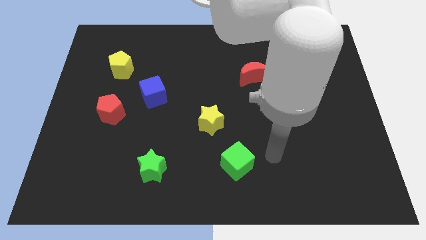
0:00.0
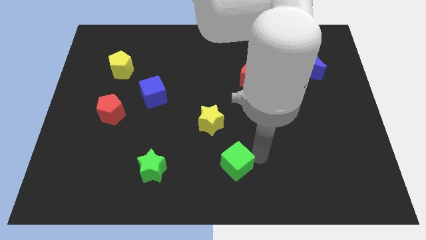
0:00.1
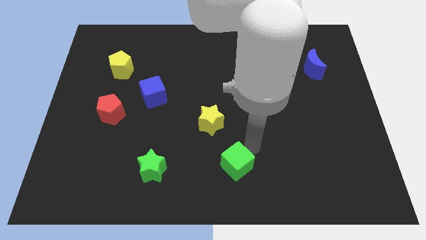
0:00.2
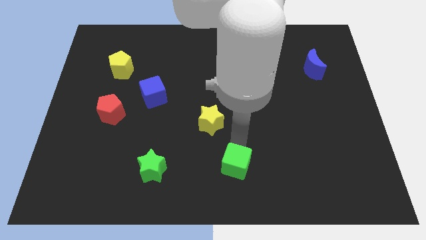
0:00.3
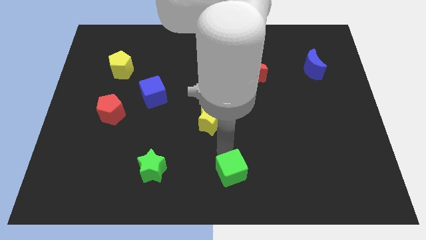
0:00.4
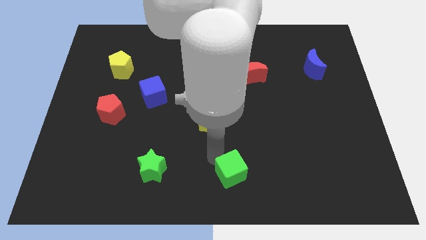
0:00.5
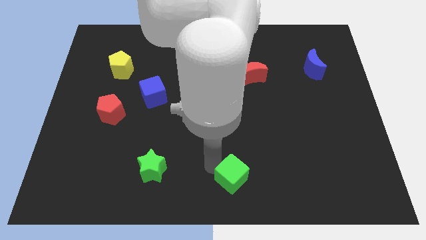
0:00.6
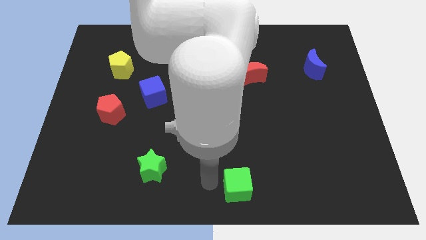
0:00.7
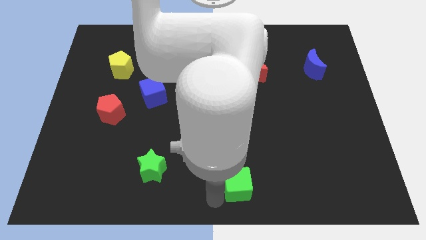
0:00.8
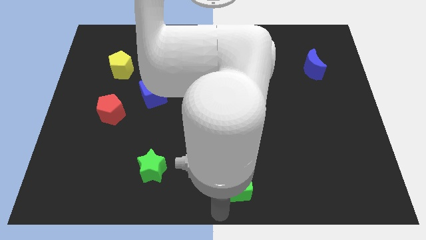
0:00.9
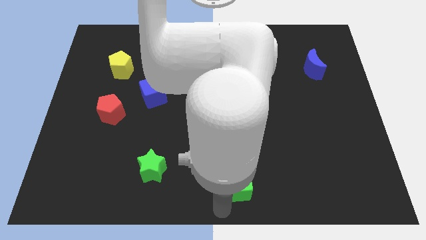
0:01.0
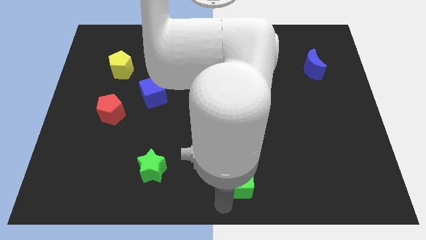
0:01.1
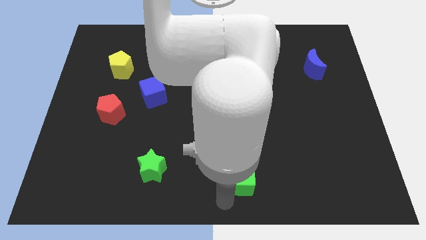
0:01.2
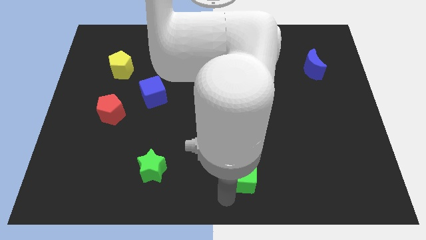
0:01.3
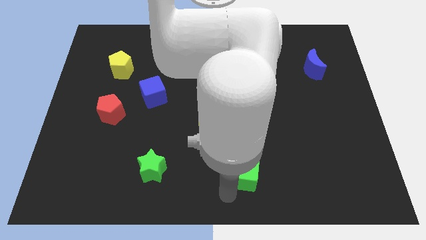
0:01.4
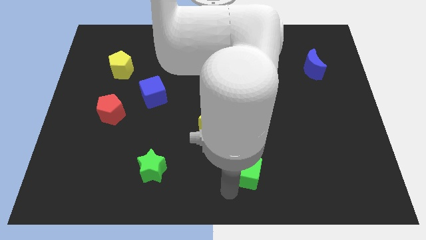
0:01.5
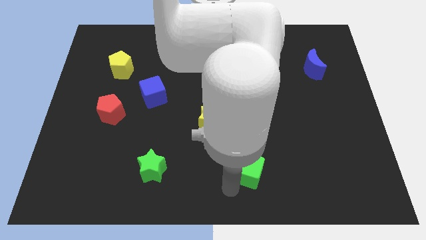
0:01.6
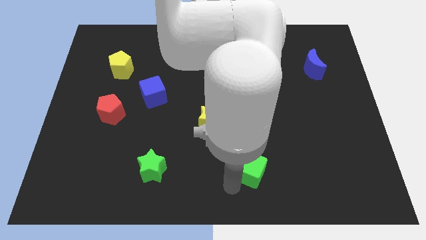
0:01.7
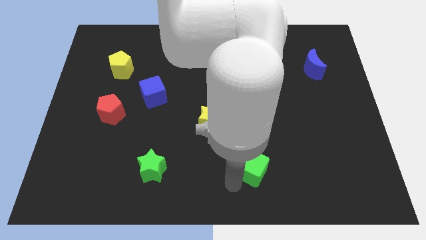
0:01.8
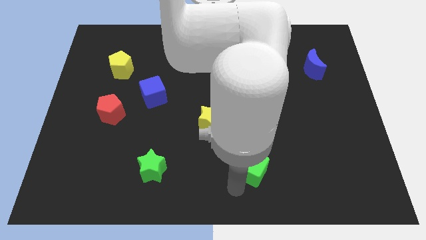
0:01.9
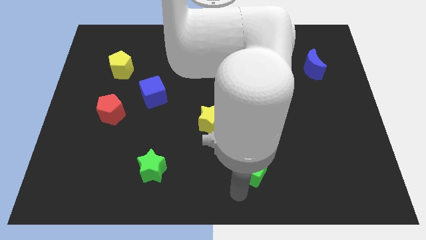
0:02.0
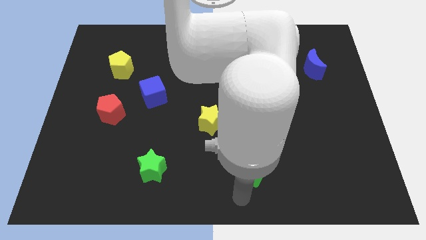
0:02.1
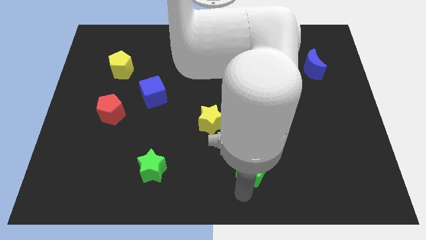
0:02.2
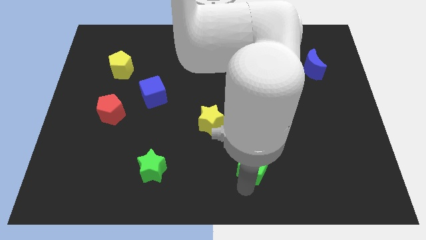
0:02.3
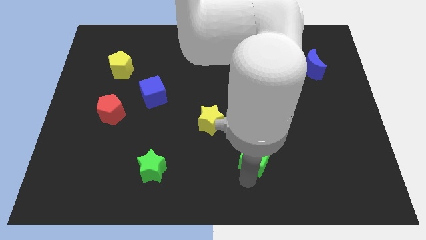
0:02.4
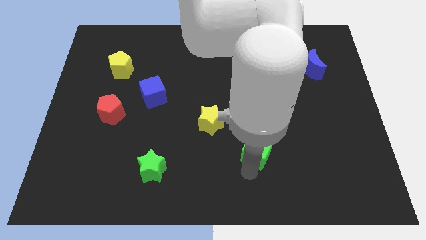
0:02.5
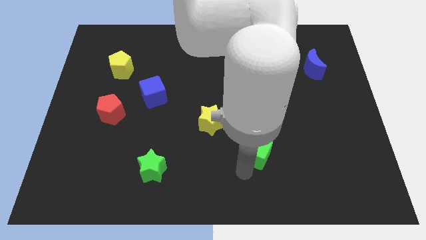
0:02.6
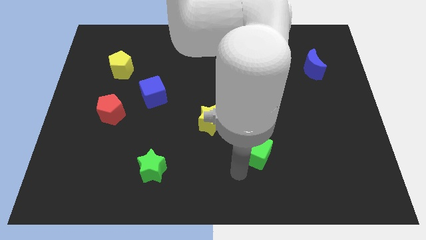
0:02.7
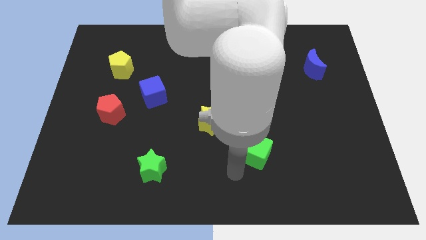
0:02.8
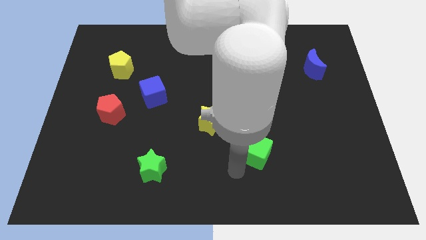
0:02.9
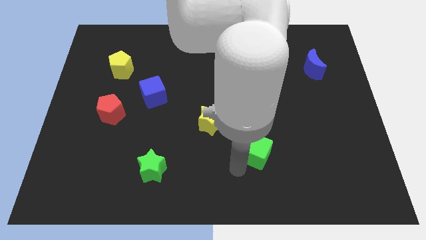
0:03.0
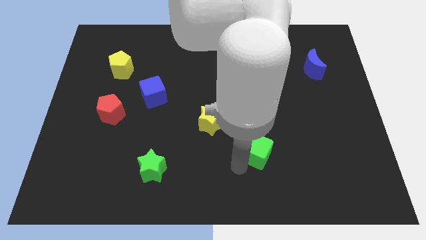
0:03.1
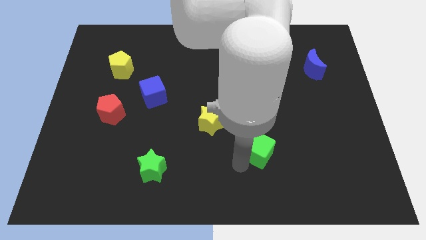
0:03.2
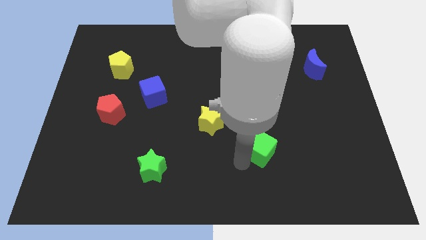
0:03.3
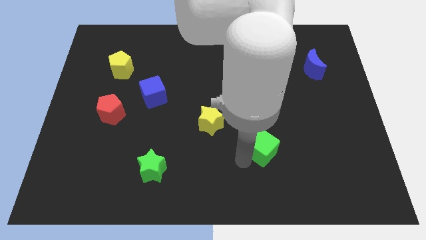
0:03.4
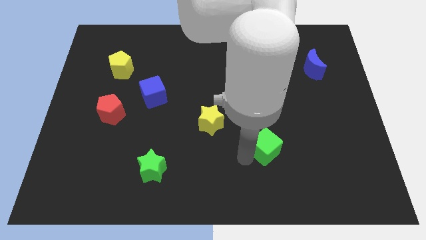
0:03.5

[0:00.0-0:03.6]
slightly push the green cube diagonally up and right

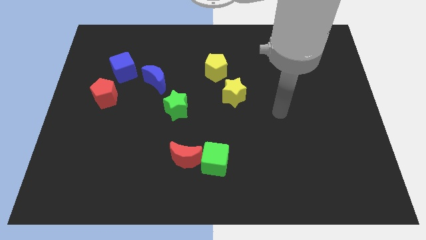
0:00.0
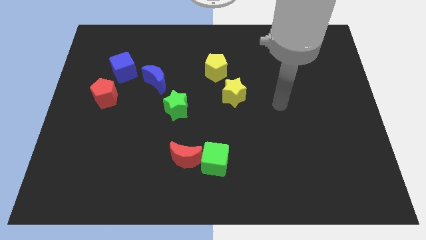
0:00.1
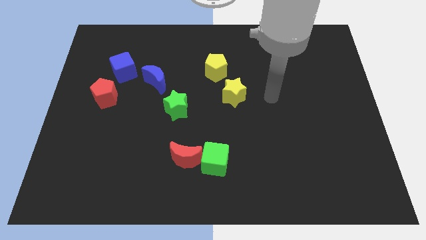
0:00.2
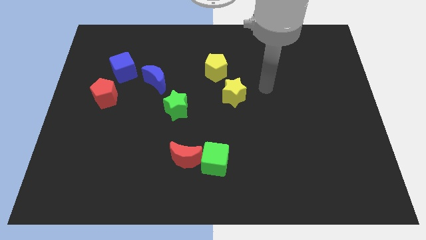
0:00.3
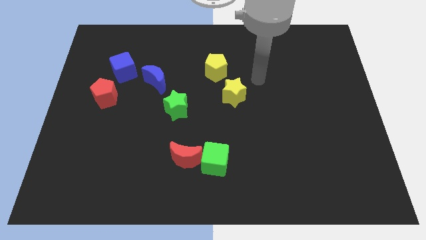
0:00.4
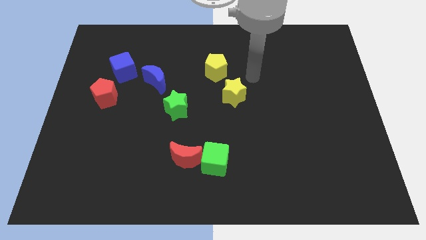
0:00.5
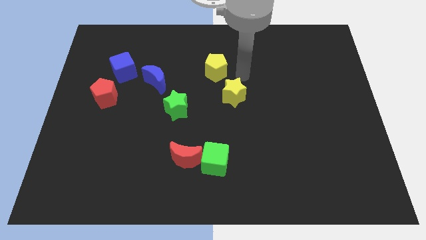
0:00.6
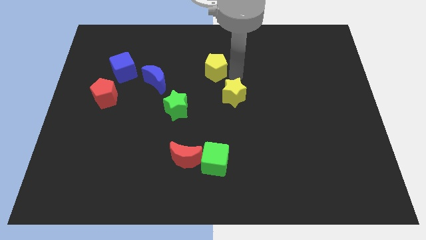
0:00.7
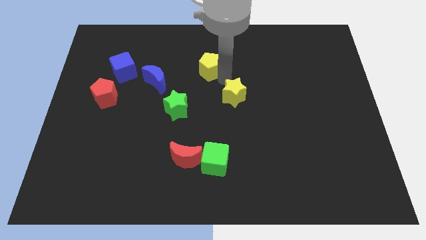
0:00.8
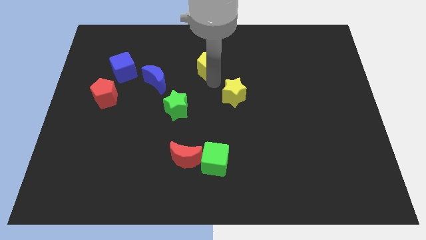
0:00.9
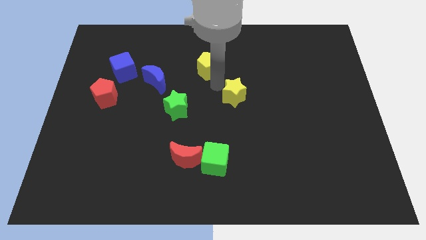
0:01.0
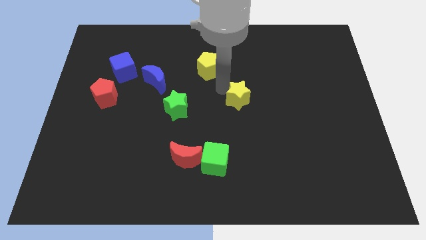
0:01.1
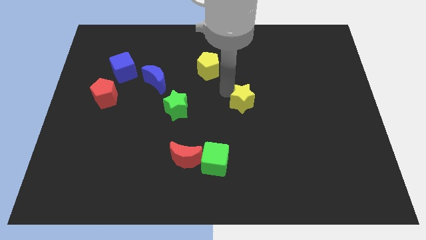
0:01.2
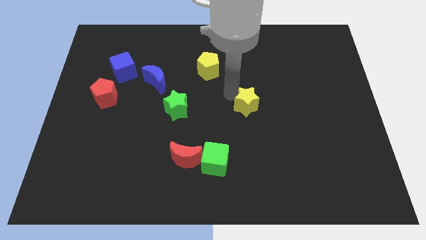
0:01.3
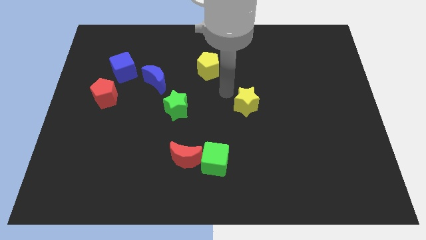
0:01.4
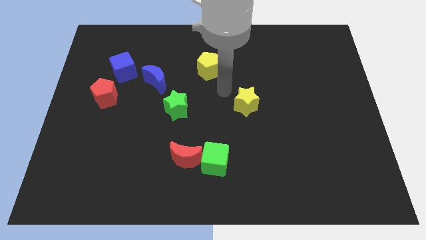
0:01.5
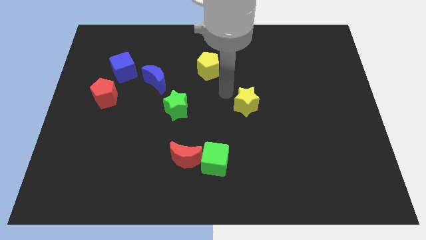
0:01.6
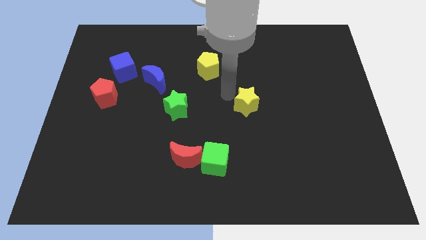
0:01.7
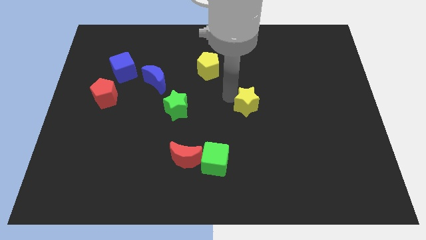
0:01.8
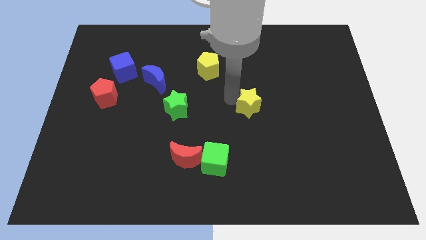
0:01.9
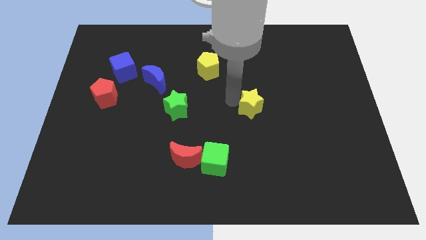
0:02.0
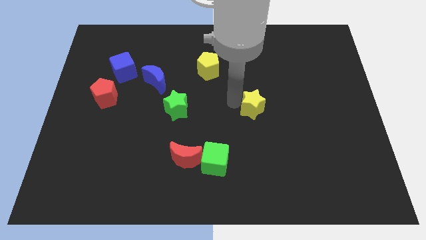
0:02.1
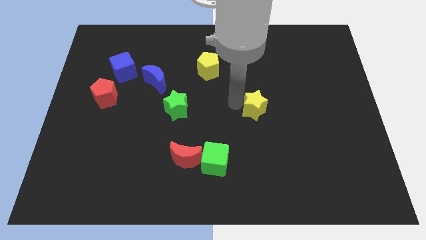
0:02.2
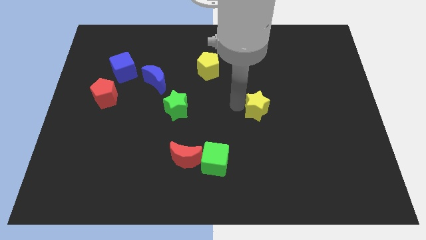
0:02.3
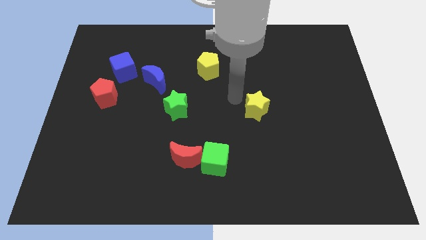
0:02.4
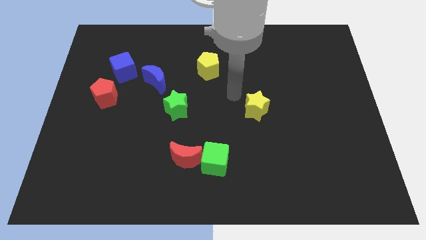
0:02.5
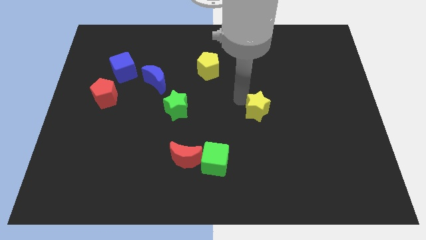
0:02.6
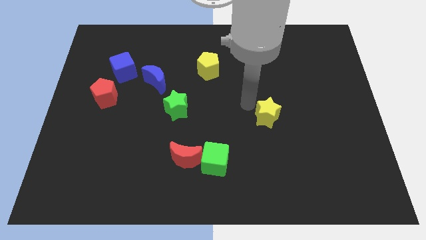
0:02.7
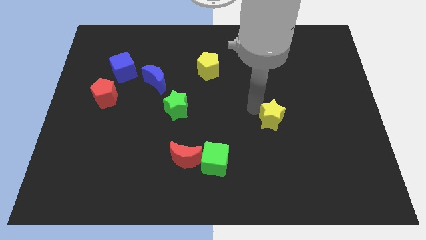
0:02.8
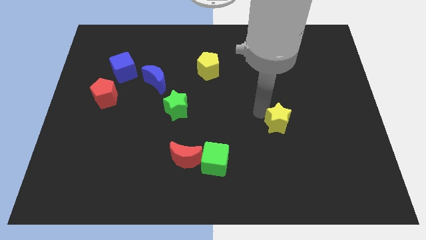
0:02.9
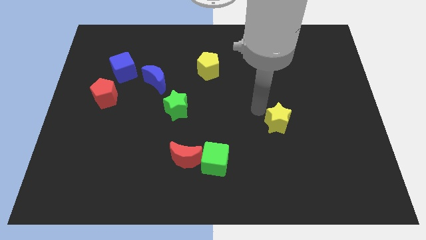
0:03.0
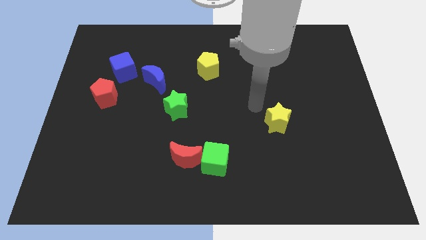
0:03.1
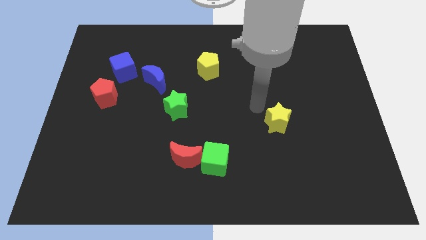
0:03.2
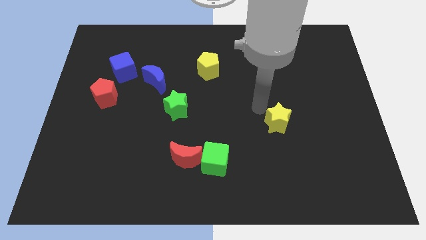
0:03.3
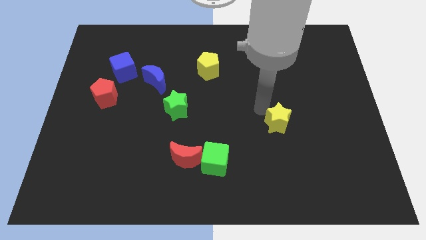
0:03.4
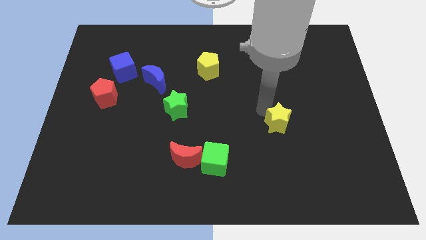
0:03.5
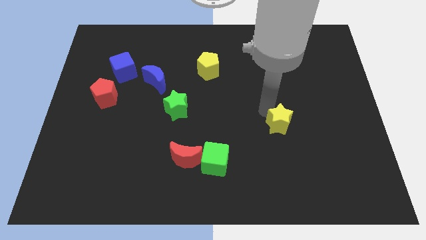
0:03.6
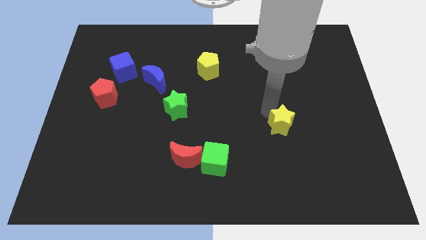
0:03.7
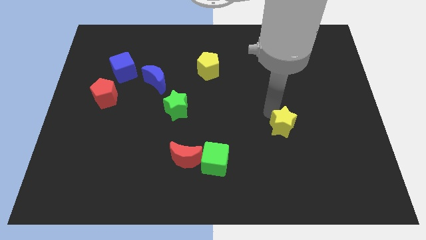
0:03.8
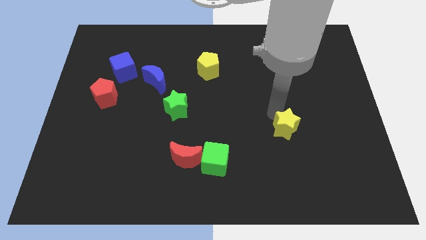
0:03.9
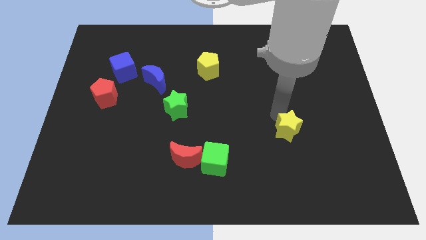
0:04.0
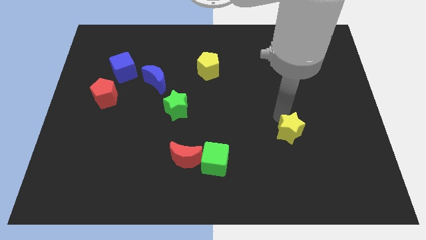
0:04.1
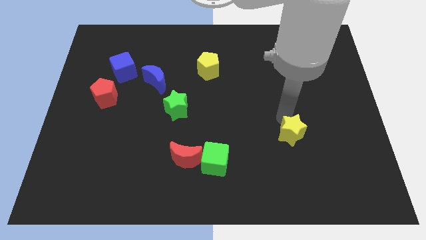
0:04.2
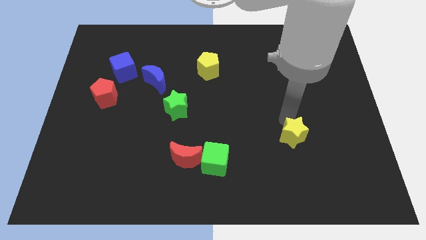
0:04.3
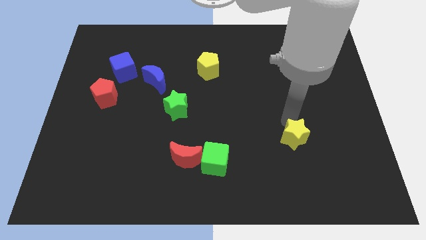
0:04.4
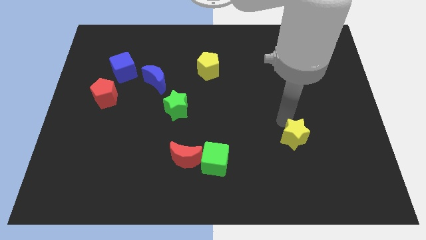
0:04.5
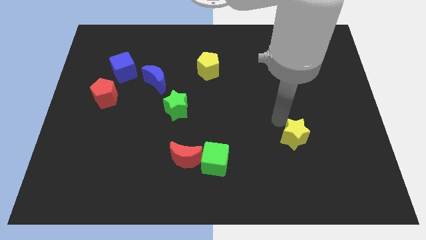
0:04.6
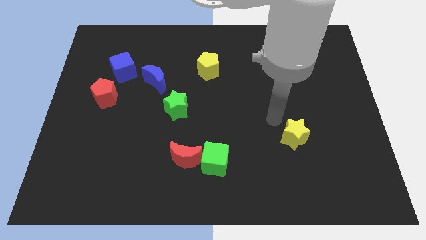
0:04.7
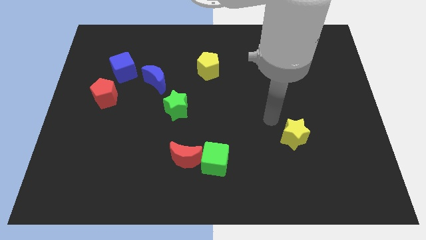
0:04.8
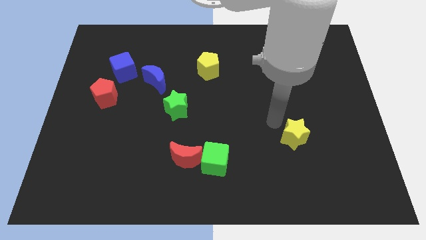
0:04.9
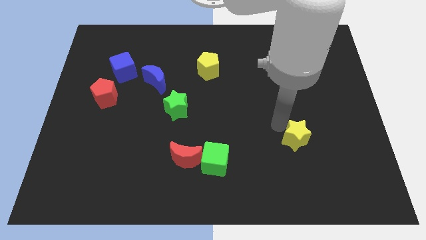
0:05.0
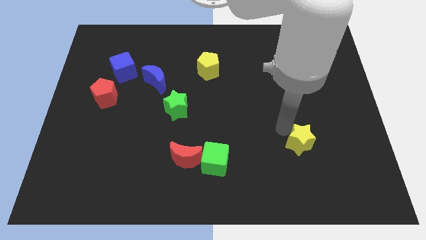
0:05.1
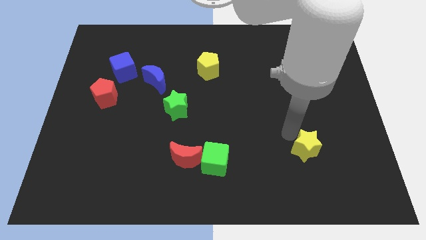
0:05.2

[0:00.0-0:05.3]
move the yellow star downwards and to the right diagonally
